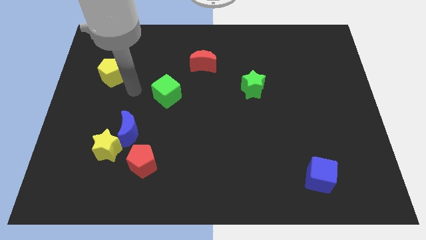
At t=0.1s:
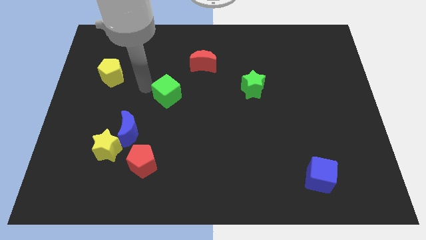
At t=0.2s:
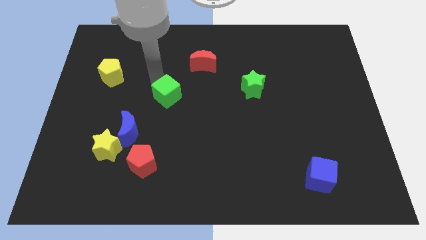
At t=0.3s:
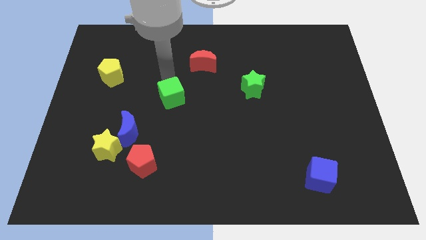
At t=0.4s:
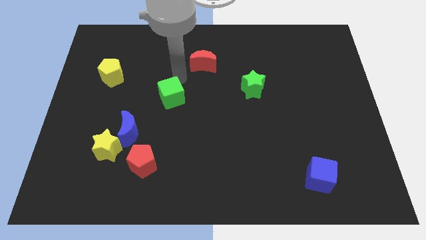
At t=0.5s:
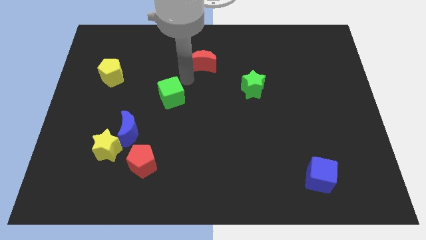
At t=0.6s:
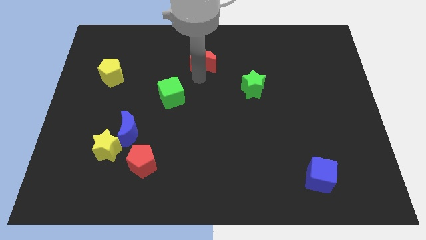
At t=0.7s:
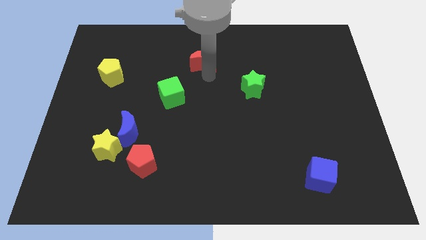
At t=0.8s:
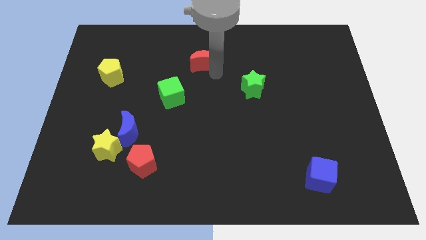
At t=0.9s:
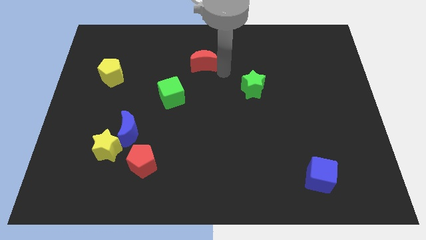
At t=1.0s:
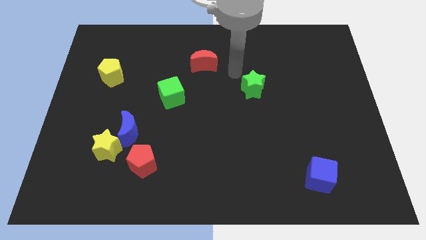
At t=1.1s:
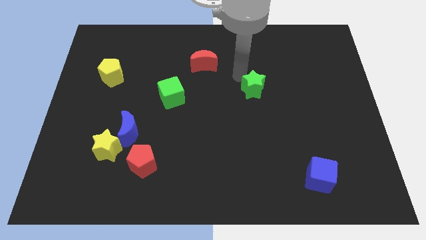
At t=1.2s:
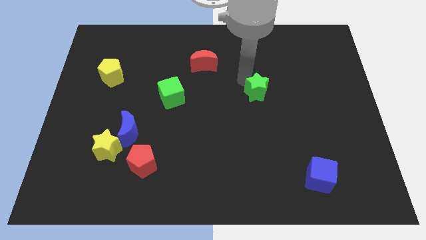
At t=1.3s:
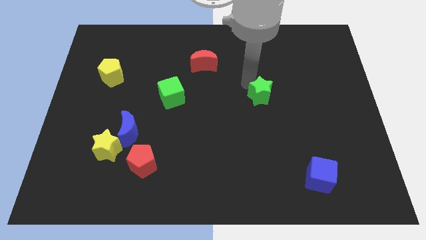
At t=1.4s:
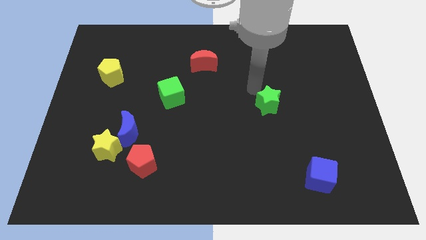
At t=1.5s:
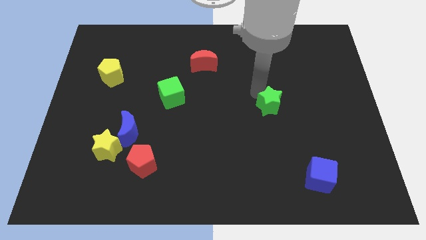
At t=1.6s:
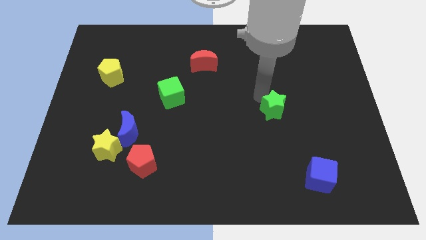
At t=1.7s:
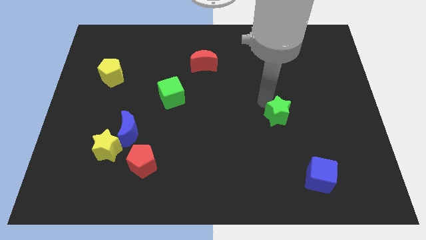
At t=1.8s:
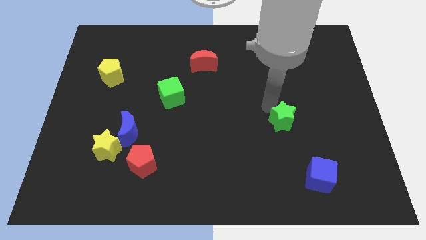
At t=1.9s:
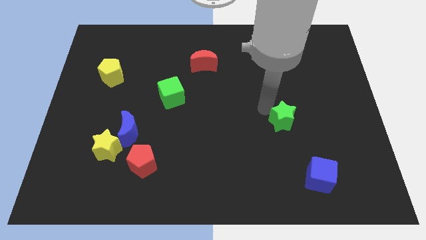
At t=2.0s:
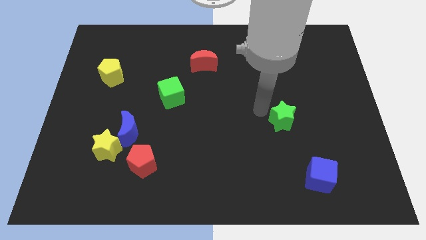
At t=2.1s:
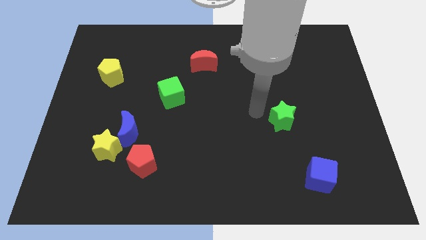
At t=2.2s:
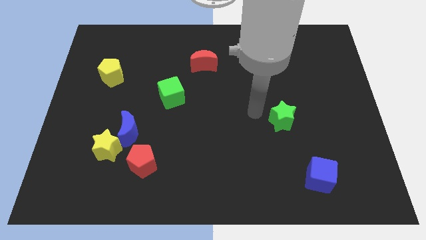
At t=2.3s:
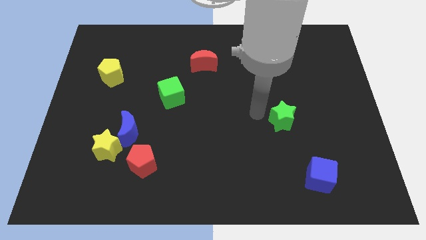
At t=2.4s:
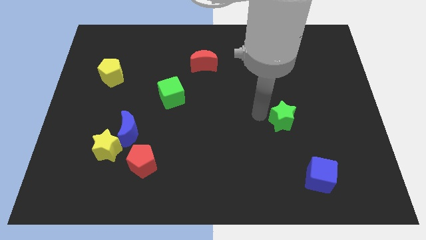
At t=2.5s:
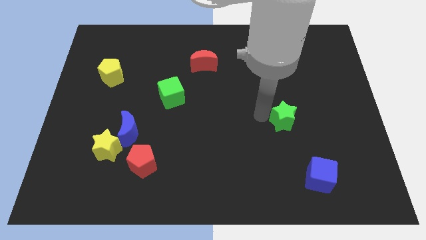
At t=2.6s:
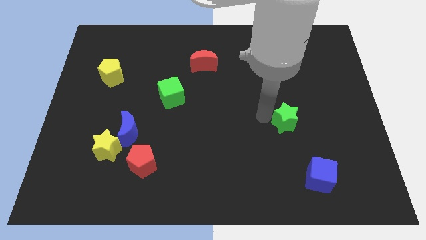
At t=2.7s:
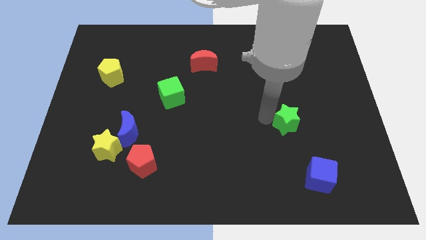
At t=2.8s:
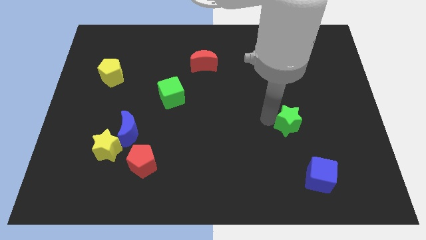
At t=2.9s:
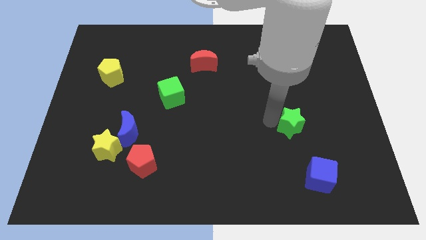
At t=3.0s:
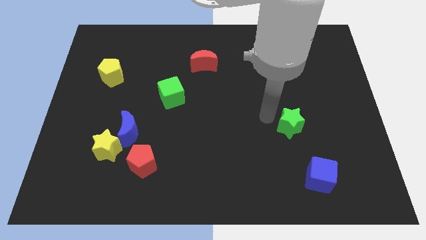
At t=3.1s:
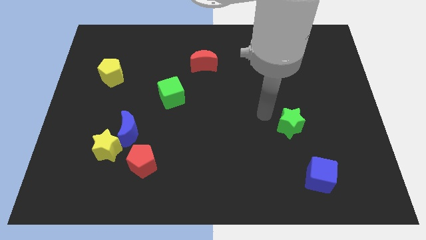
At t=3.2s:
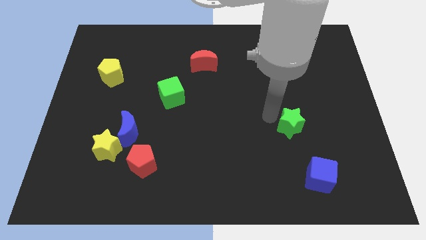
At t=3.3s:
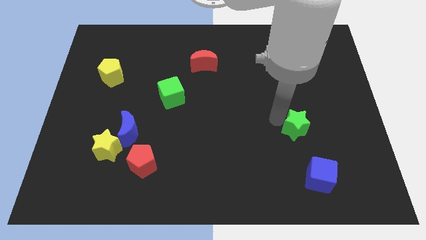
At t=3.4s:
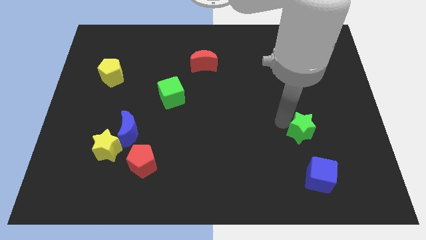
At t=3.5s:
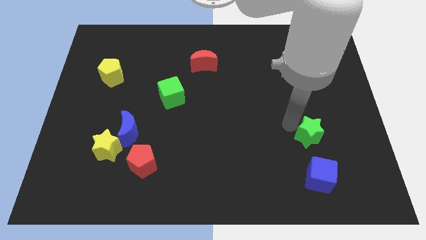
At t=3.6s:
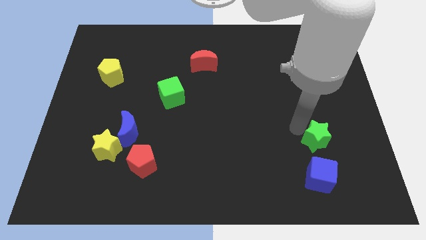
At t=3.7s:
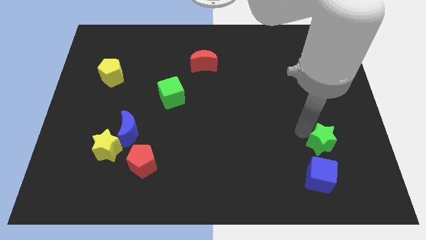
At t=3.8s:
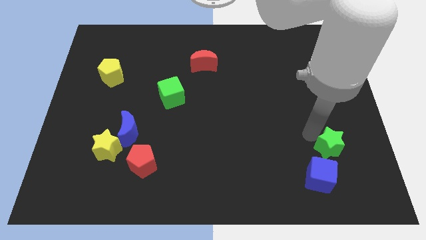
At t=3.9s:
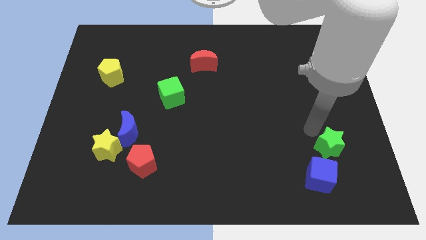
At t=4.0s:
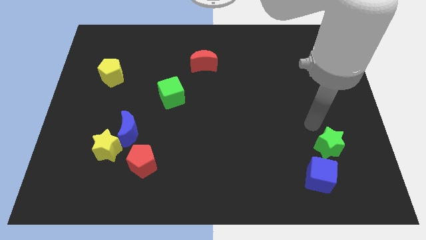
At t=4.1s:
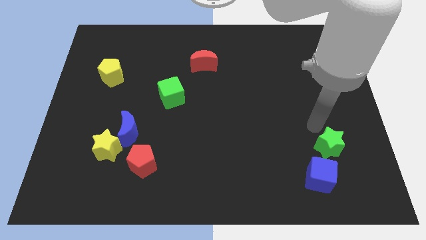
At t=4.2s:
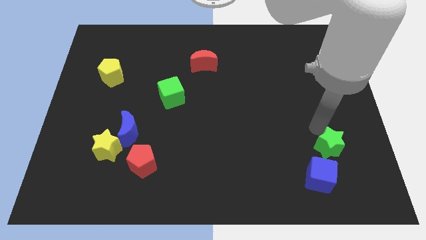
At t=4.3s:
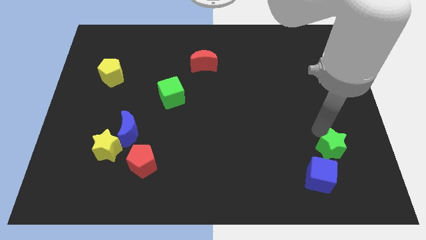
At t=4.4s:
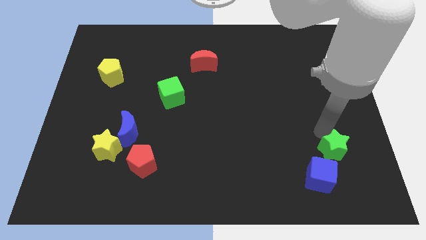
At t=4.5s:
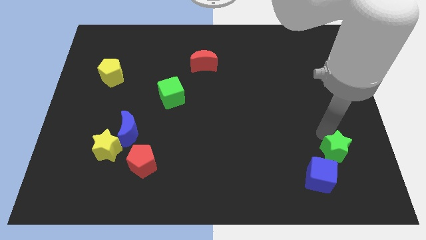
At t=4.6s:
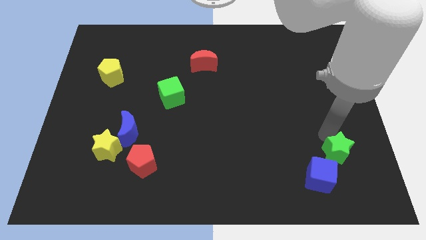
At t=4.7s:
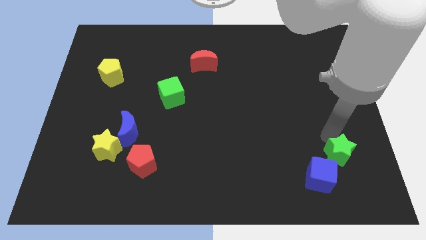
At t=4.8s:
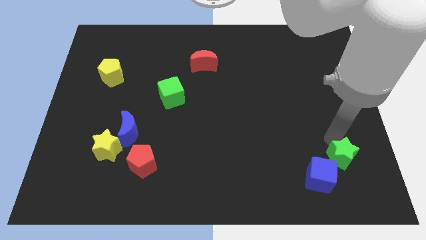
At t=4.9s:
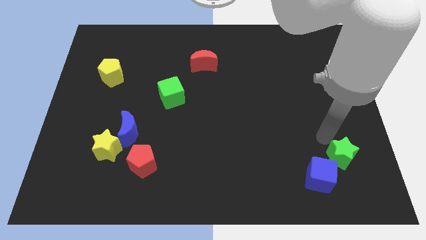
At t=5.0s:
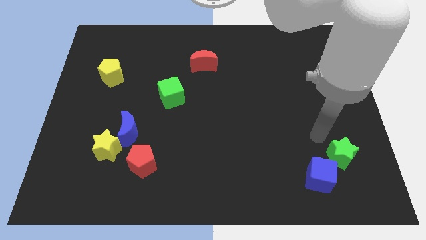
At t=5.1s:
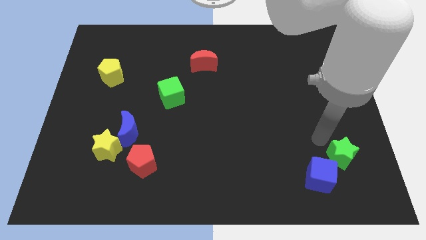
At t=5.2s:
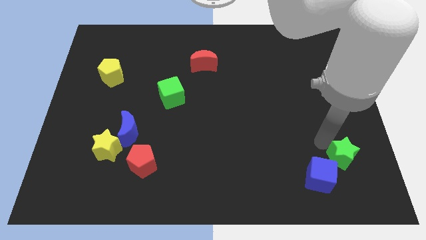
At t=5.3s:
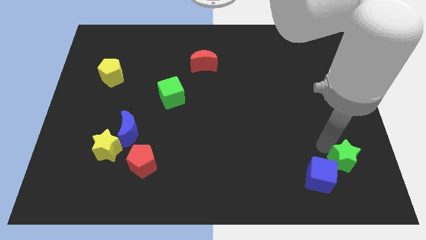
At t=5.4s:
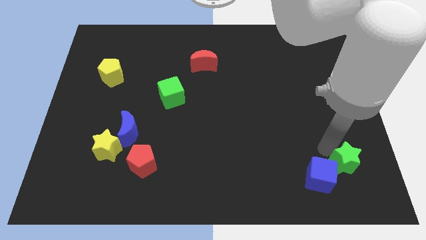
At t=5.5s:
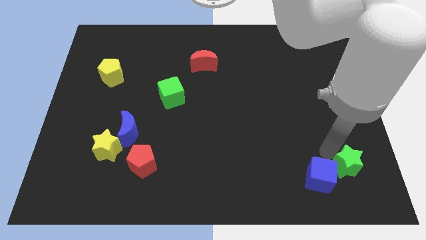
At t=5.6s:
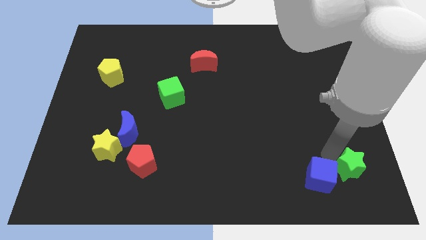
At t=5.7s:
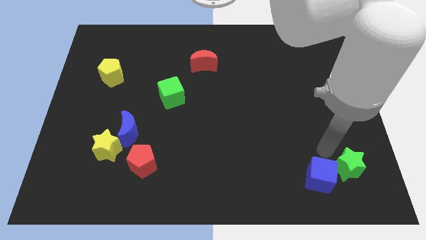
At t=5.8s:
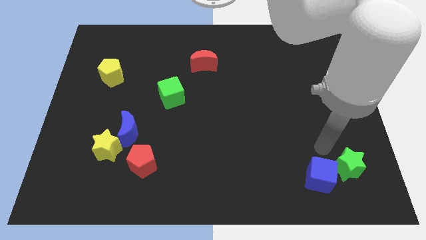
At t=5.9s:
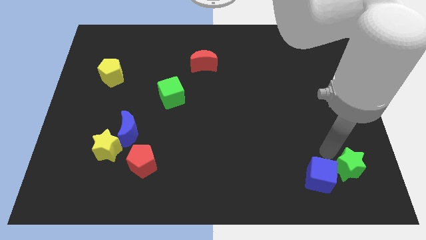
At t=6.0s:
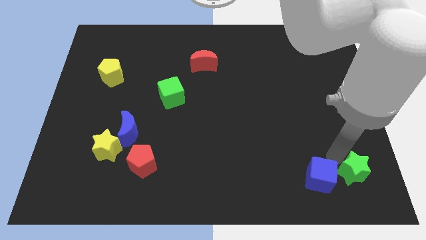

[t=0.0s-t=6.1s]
slide the green star to the lower right corner
